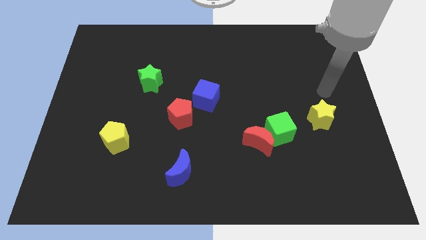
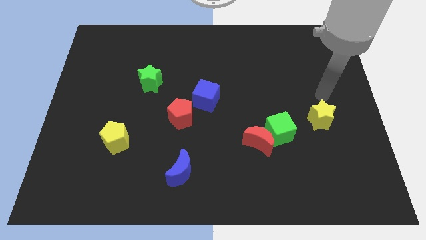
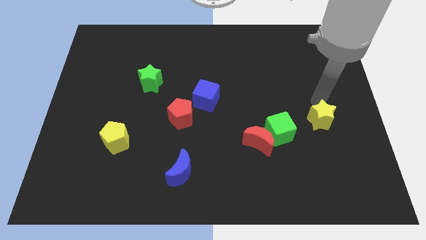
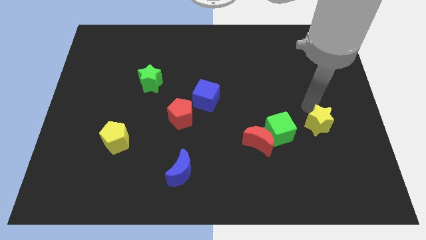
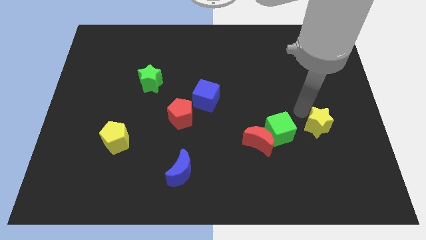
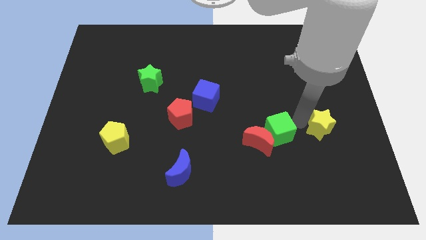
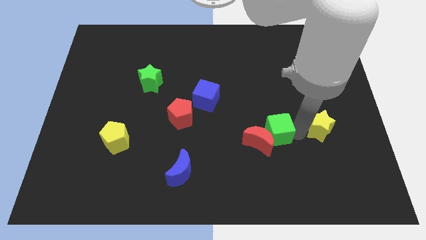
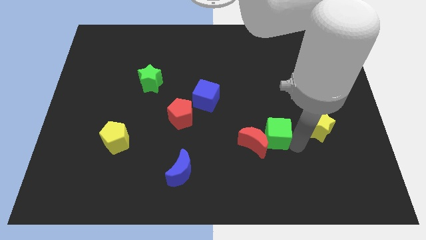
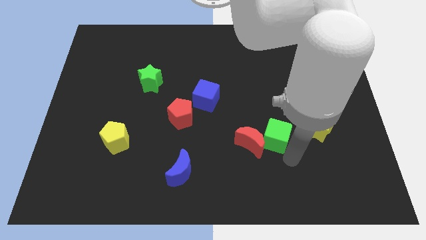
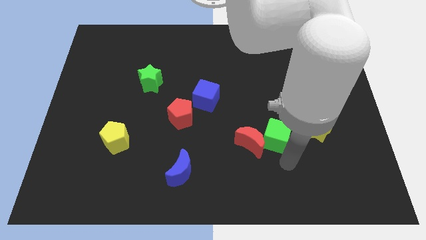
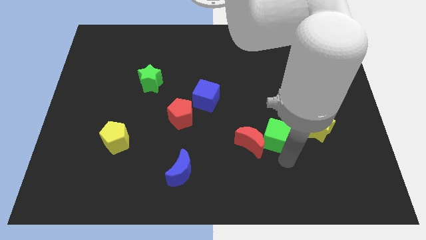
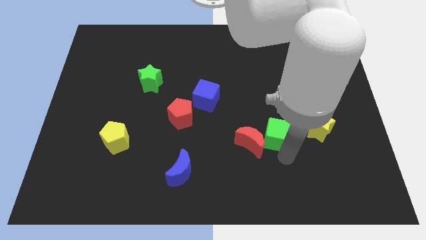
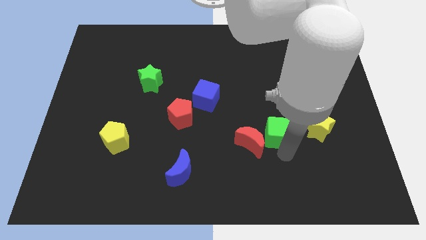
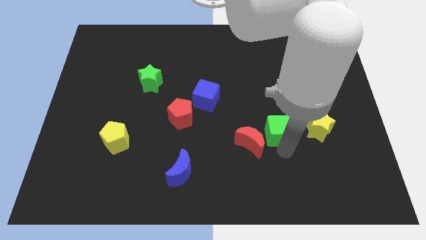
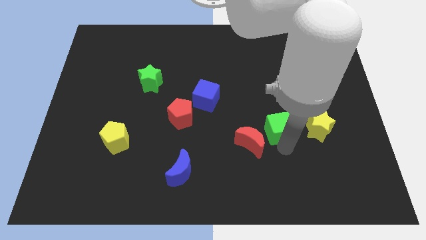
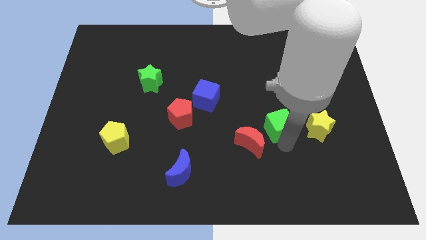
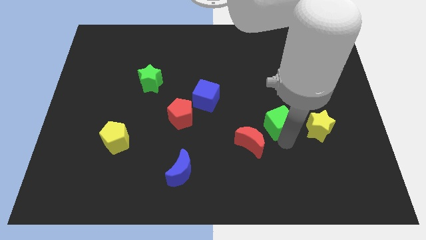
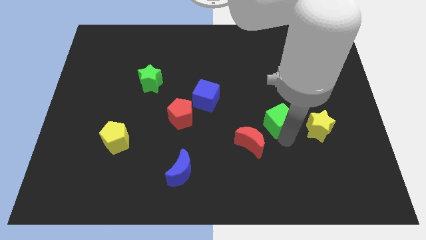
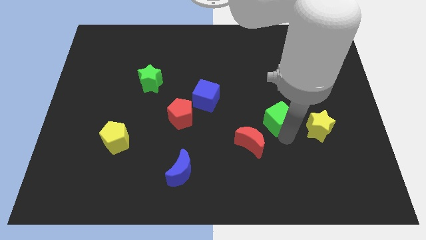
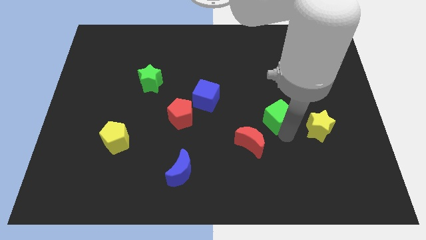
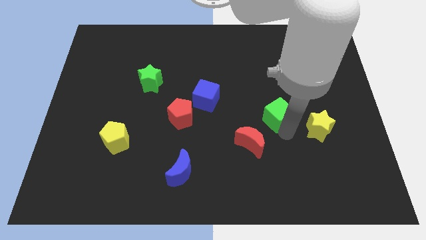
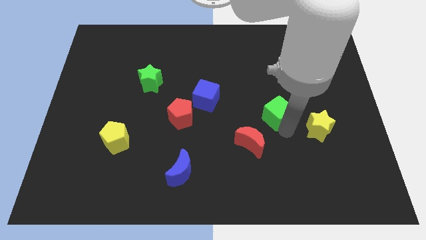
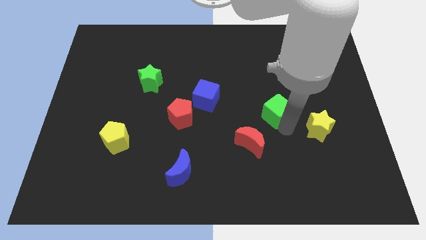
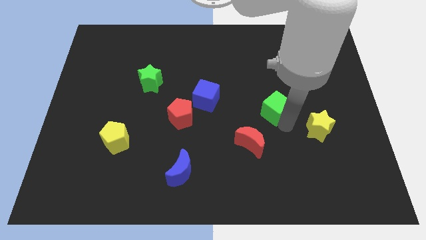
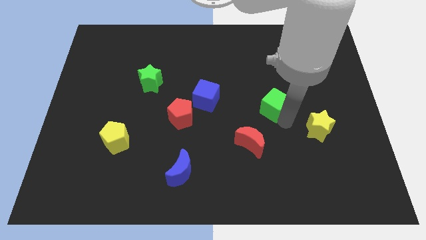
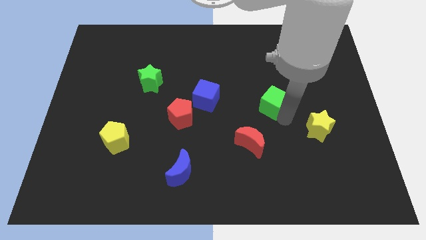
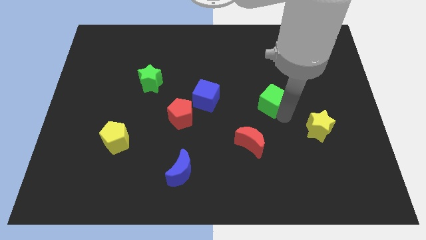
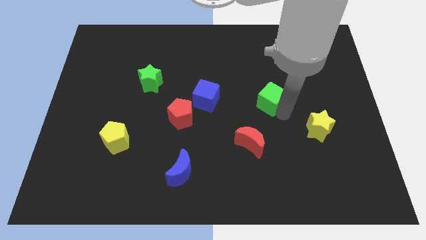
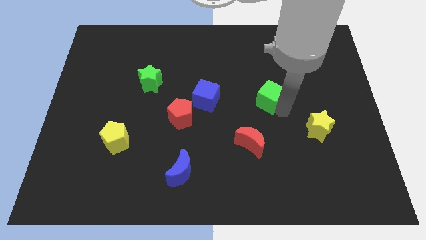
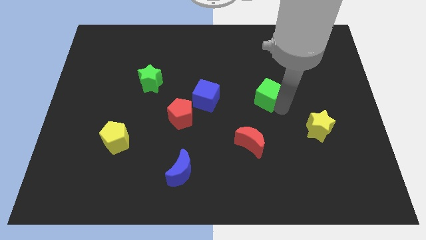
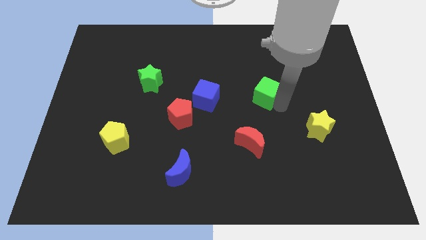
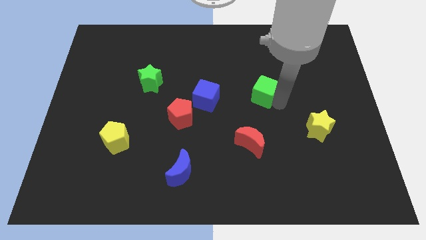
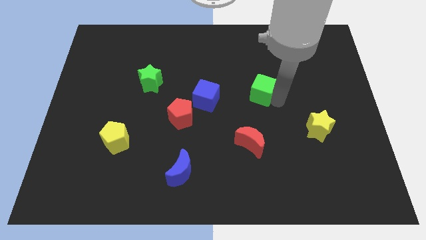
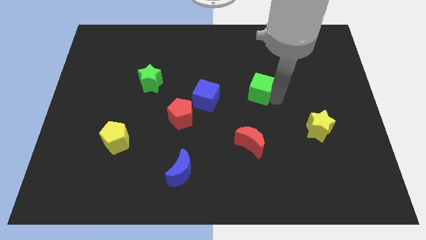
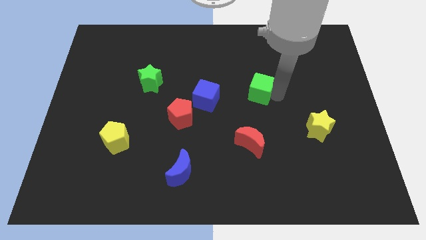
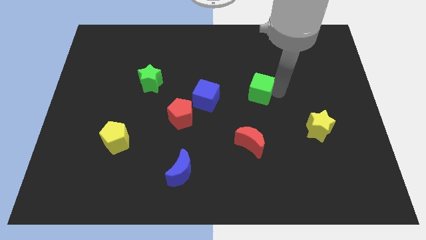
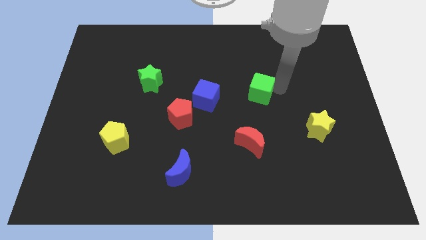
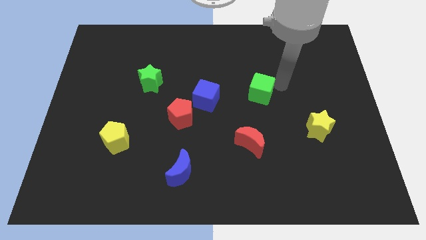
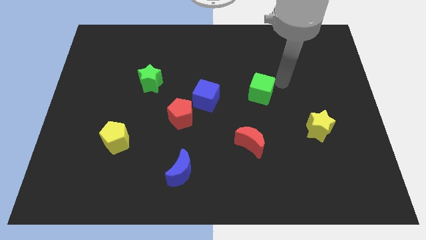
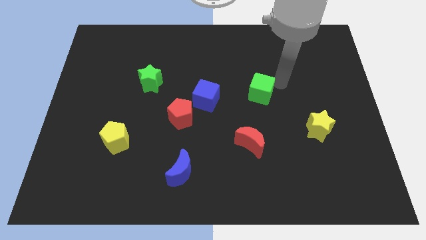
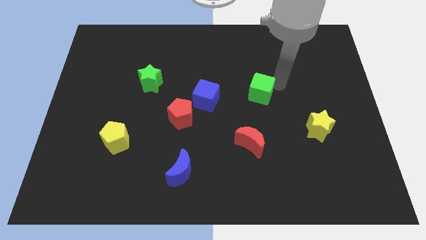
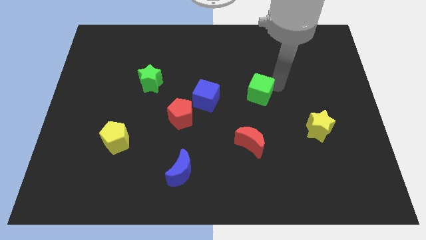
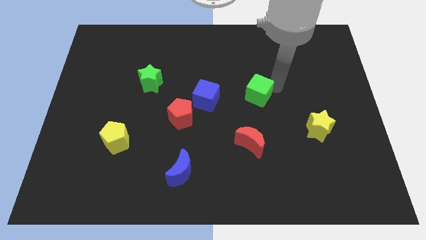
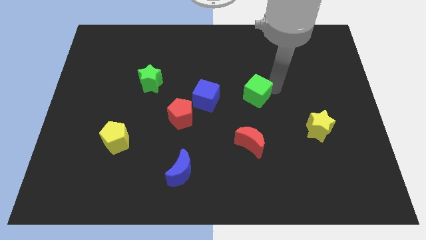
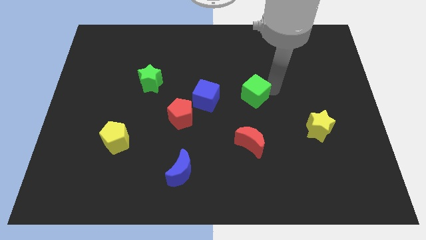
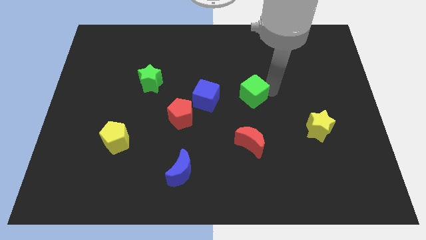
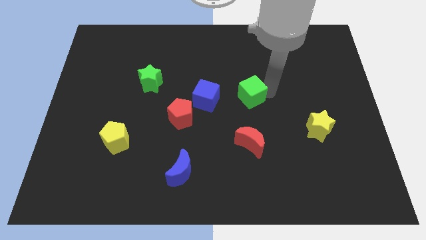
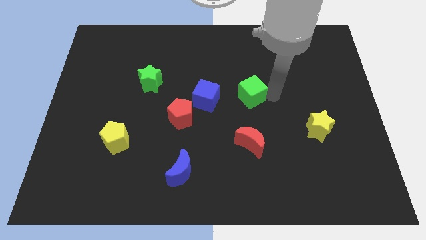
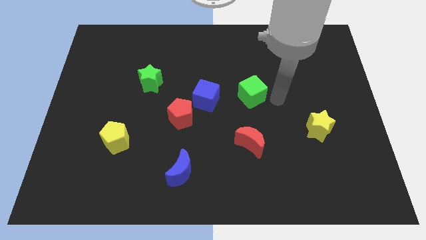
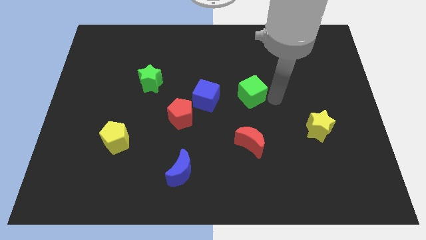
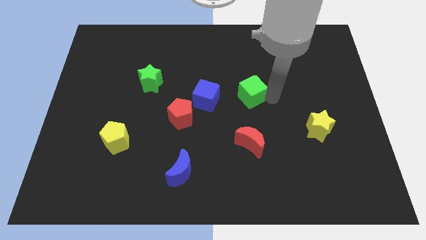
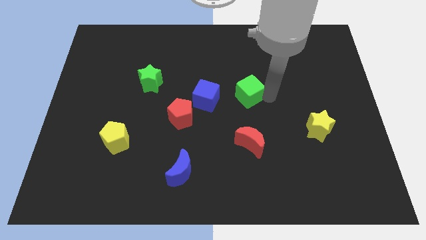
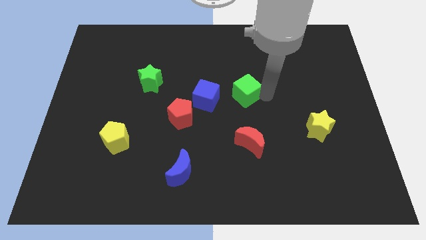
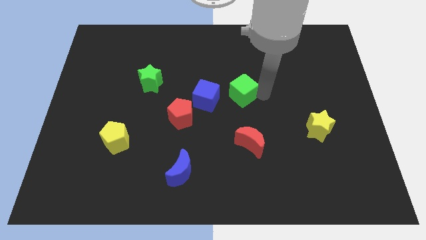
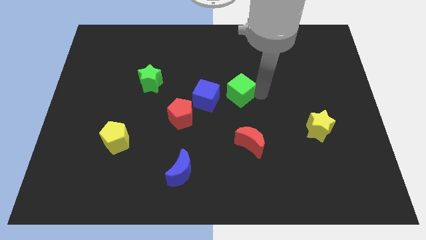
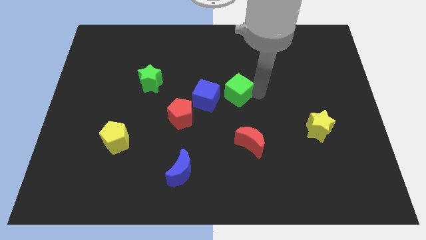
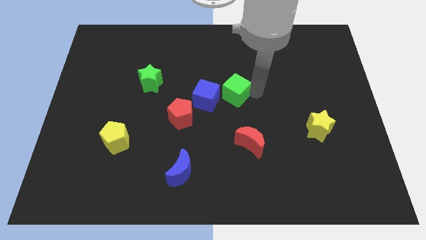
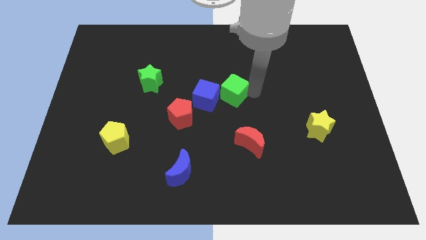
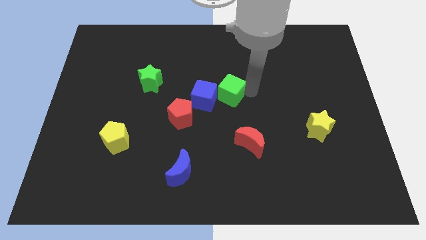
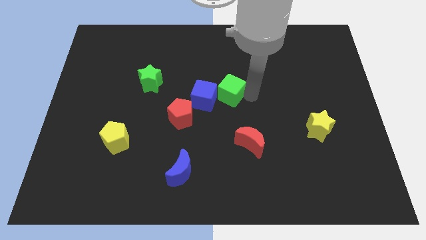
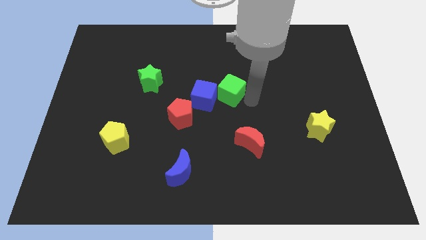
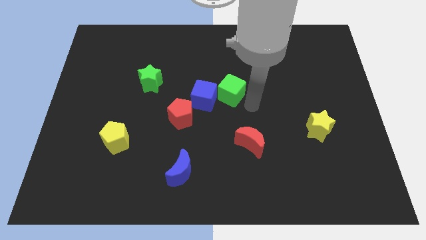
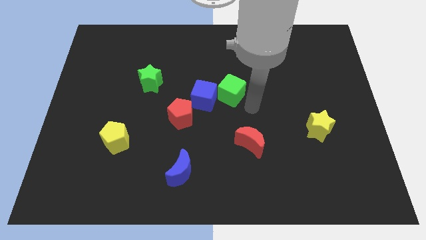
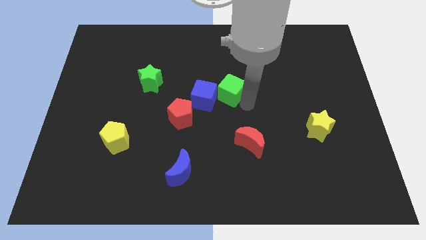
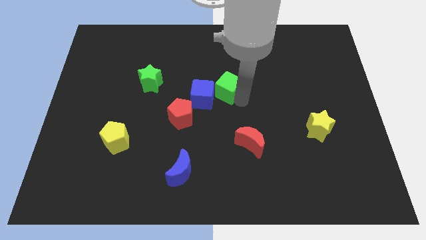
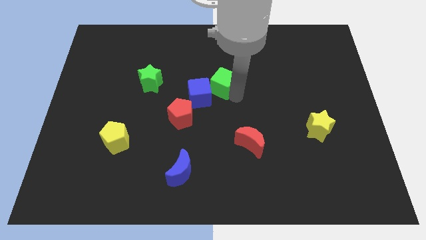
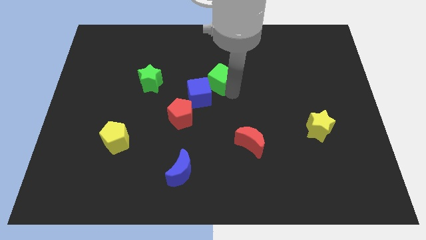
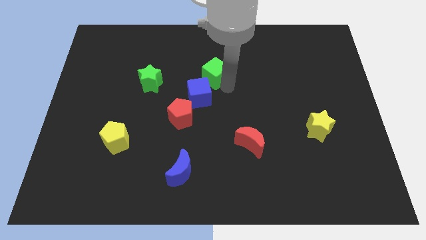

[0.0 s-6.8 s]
move the green cube up and to the left diagonally

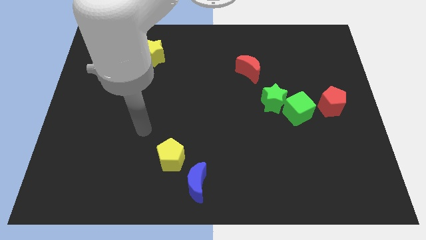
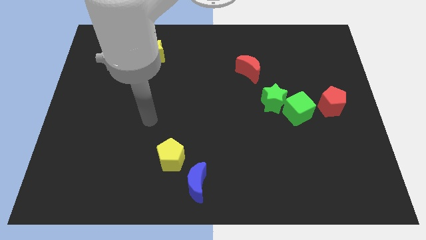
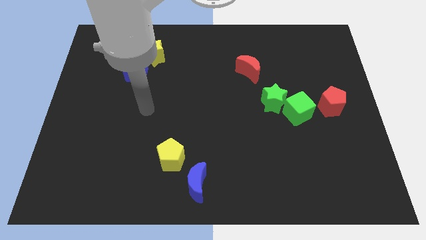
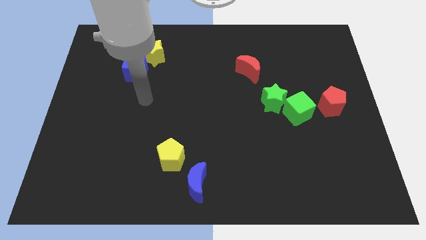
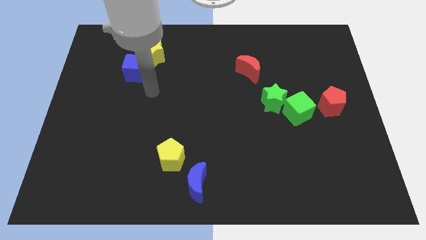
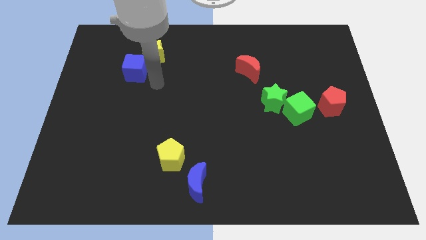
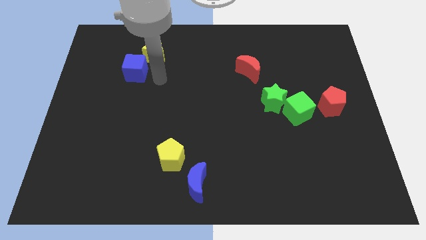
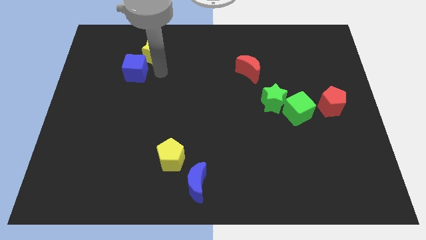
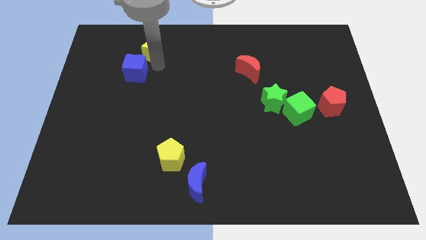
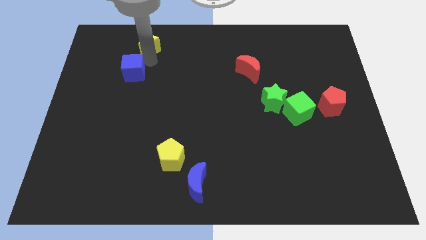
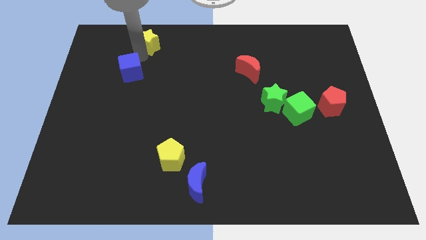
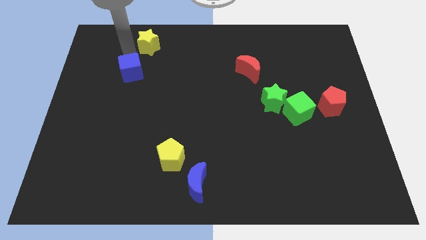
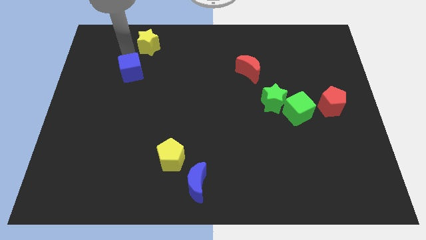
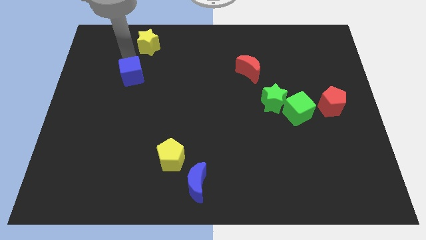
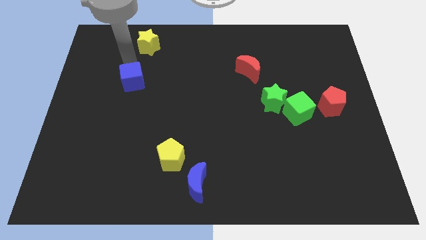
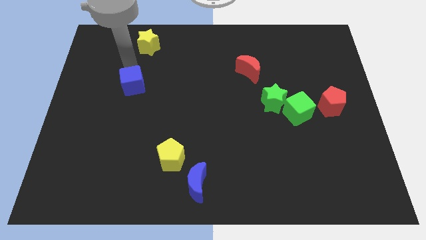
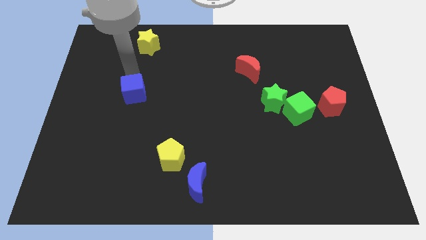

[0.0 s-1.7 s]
move the blue cube a little bit down

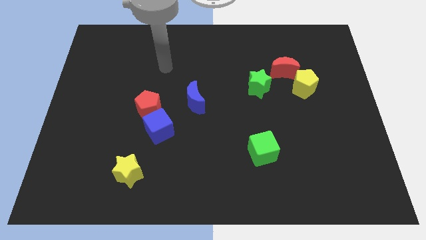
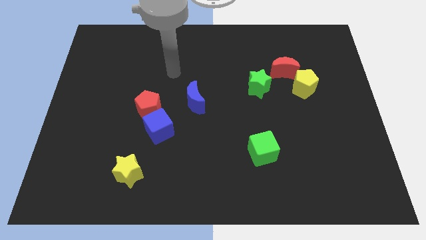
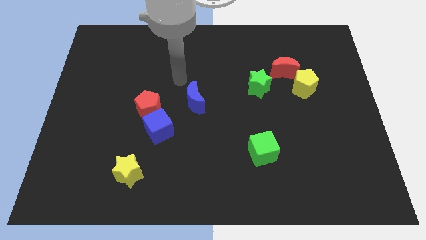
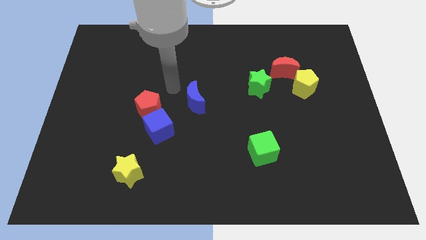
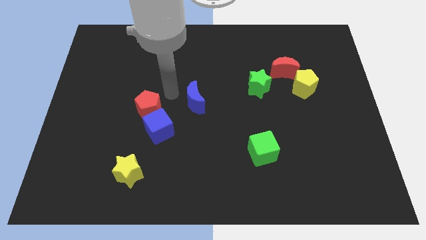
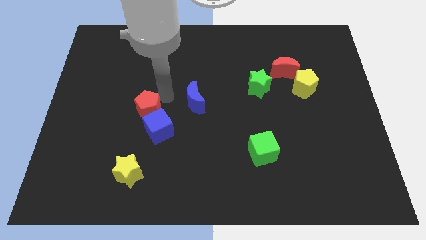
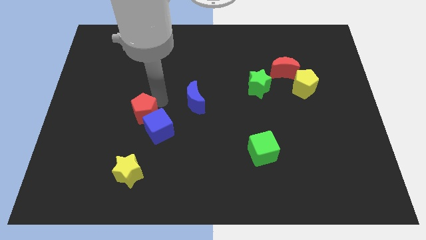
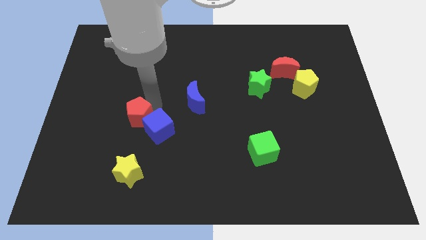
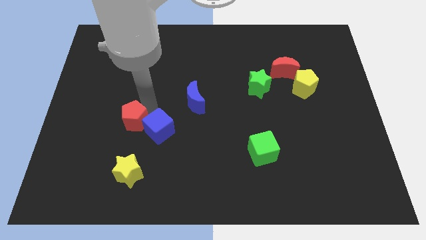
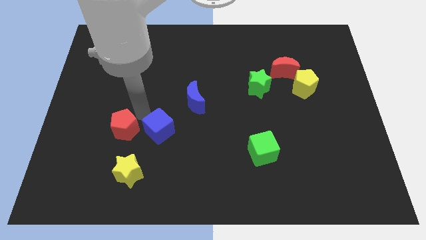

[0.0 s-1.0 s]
slightly move the red pentagon downwards and to the left diagonally
